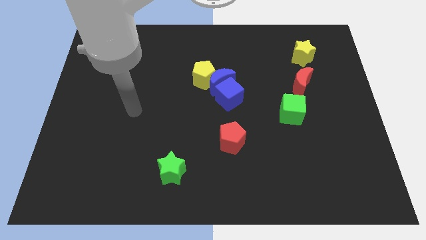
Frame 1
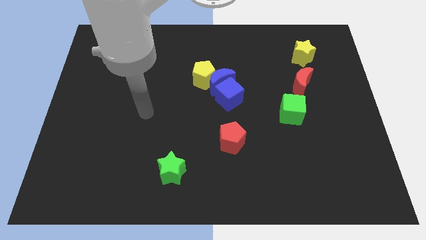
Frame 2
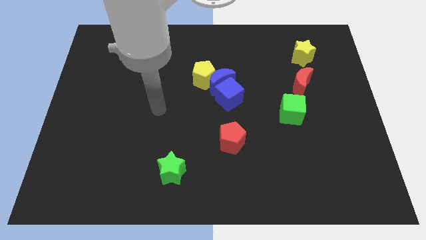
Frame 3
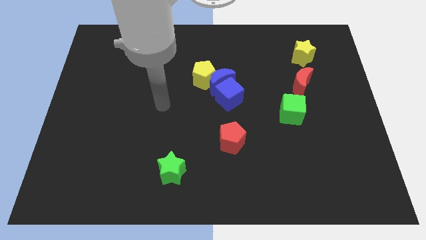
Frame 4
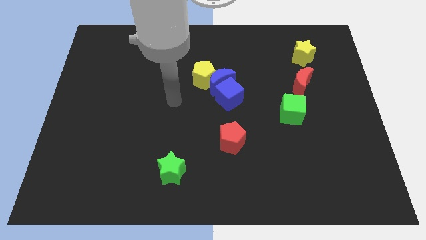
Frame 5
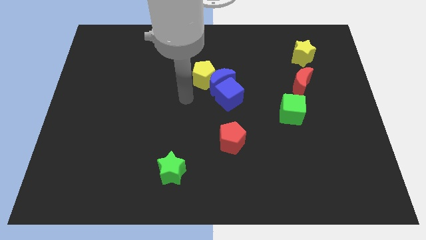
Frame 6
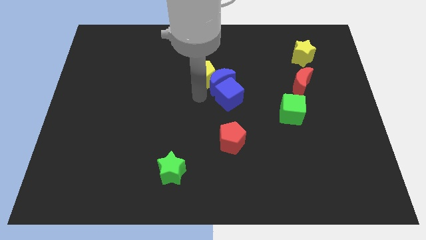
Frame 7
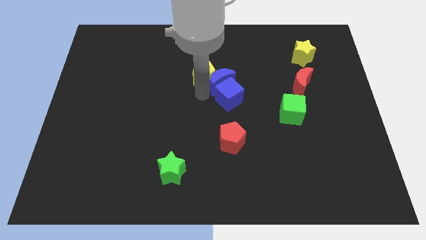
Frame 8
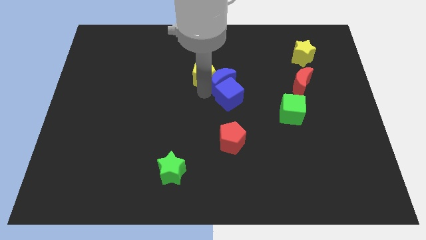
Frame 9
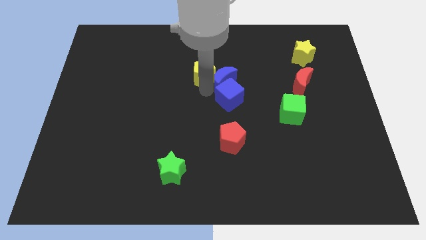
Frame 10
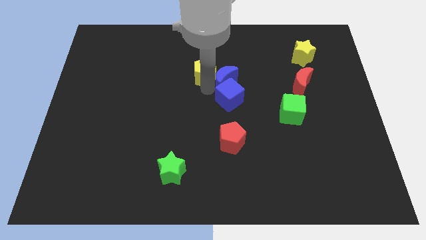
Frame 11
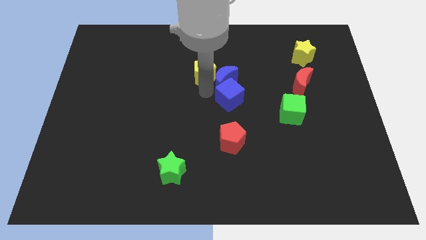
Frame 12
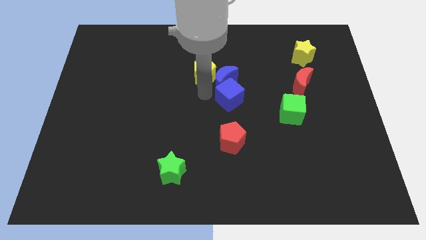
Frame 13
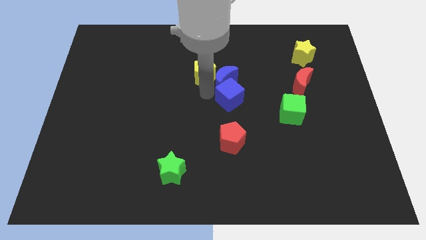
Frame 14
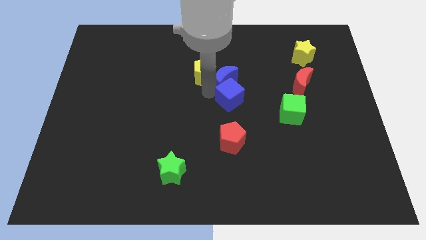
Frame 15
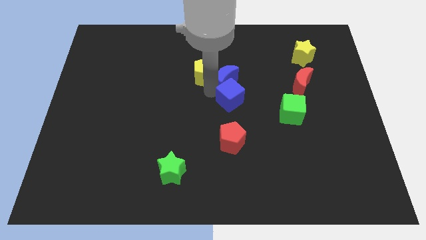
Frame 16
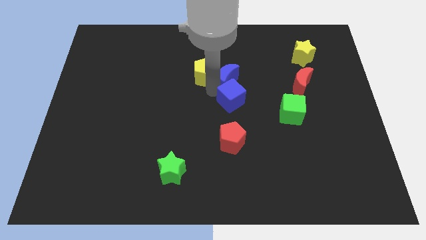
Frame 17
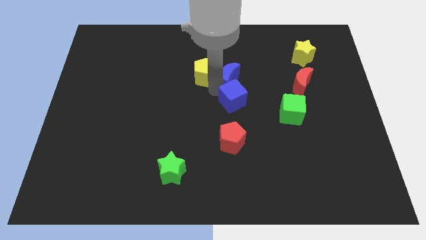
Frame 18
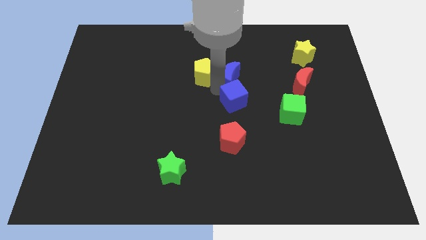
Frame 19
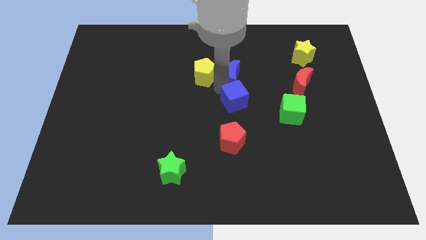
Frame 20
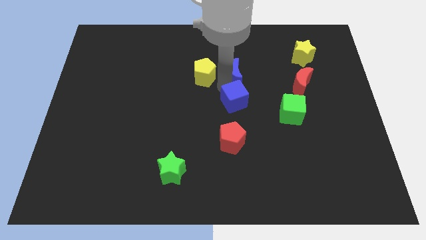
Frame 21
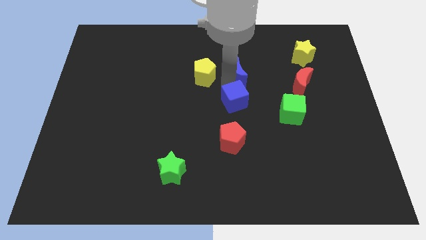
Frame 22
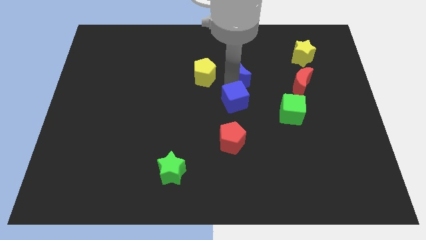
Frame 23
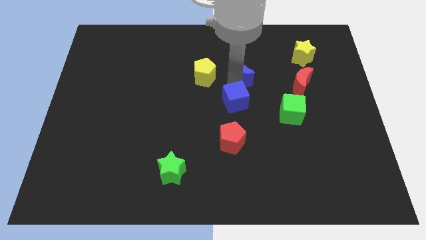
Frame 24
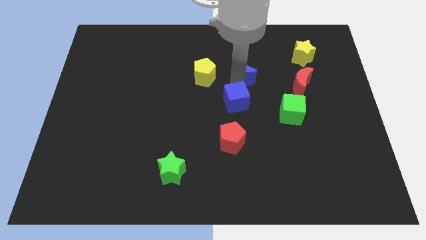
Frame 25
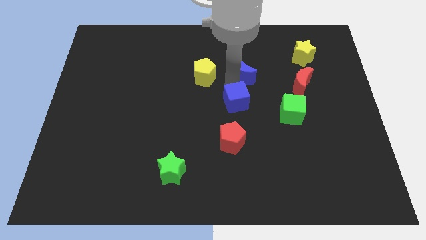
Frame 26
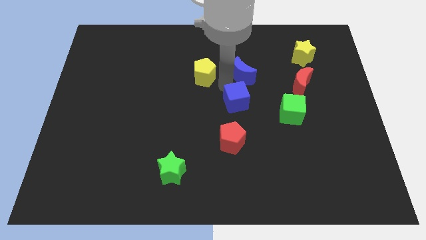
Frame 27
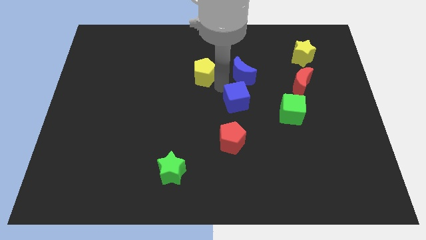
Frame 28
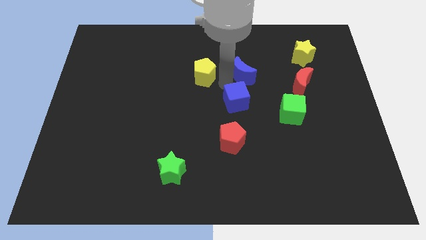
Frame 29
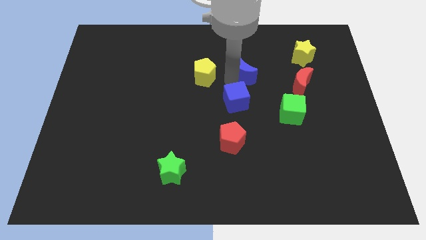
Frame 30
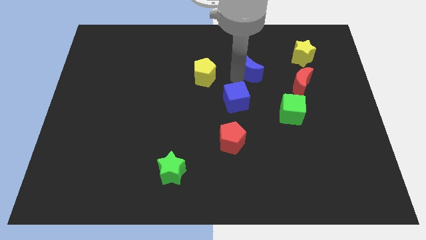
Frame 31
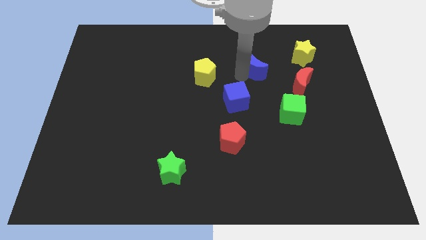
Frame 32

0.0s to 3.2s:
pull the blue moon apart from the yellow pentagon and blue cube

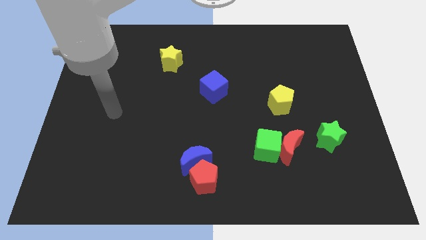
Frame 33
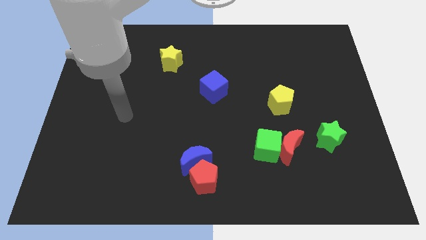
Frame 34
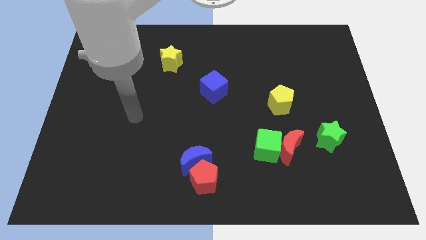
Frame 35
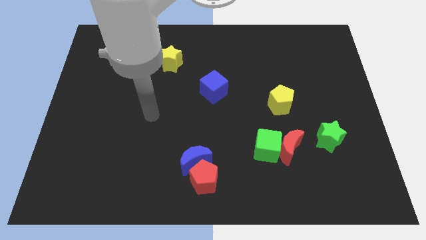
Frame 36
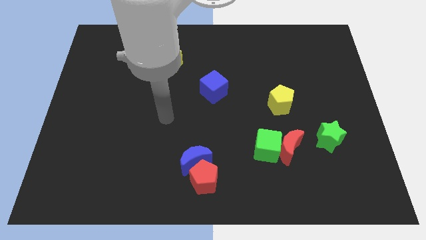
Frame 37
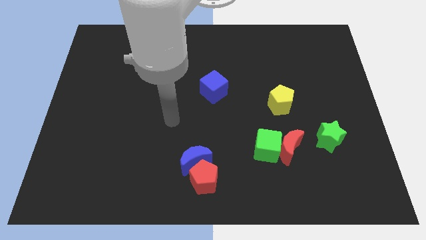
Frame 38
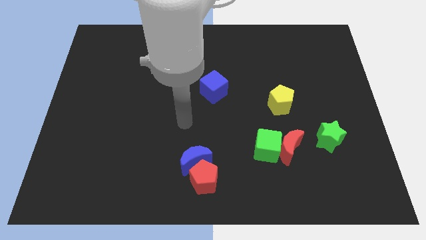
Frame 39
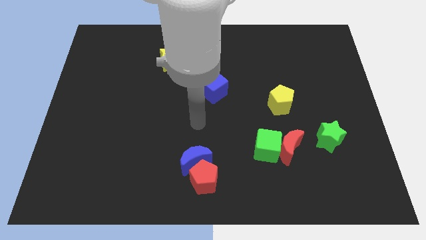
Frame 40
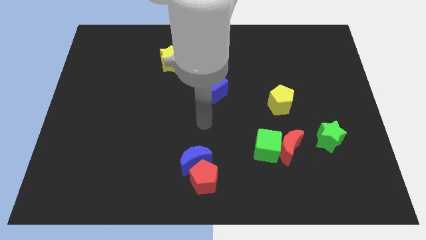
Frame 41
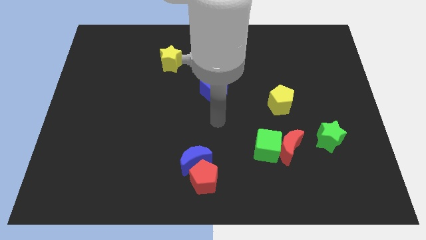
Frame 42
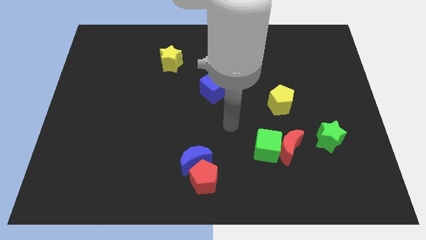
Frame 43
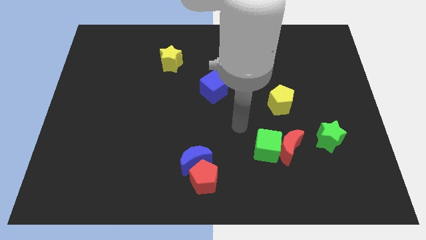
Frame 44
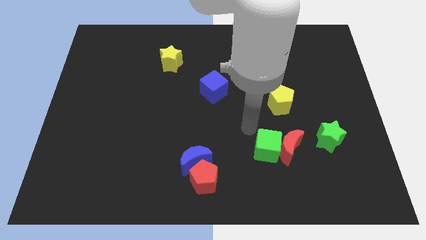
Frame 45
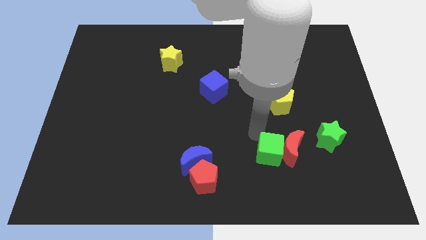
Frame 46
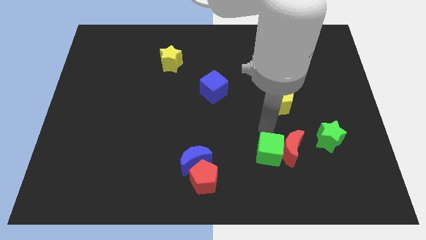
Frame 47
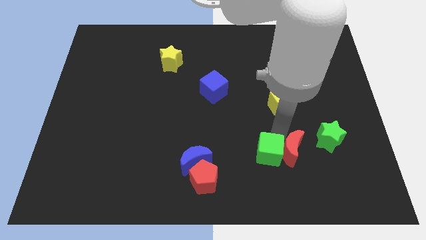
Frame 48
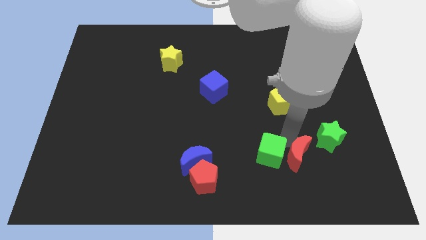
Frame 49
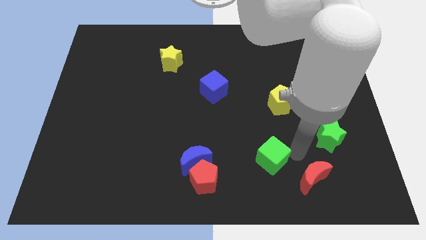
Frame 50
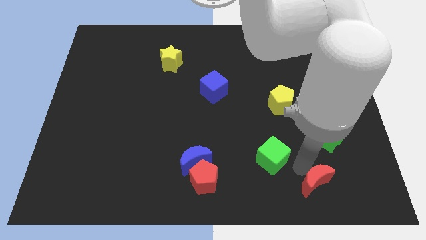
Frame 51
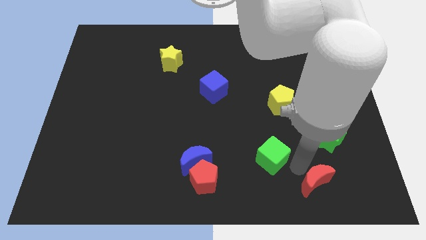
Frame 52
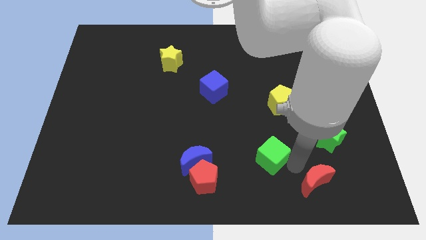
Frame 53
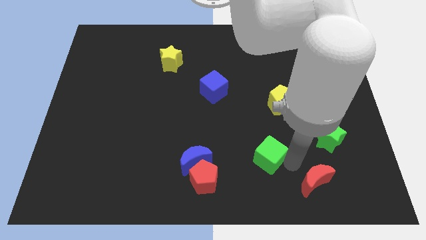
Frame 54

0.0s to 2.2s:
separate the green cube from the red moon

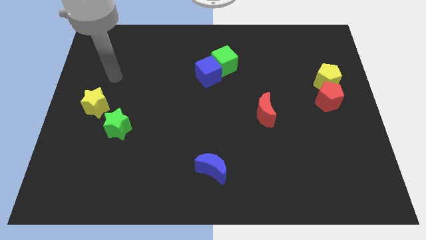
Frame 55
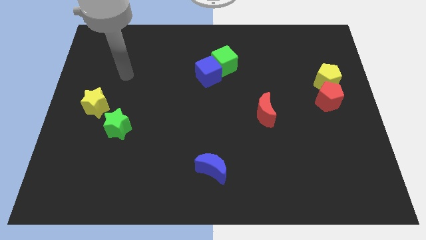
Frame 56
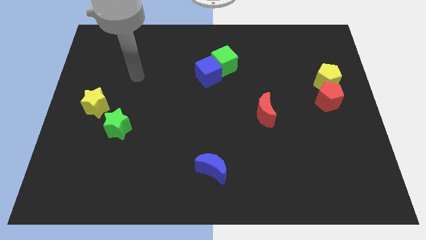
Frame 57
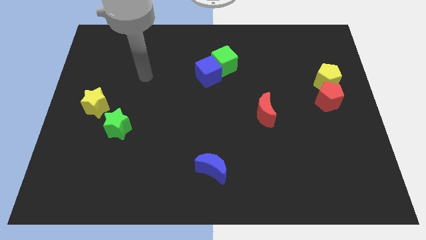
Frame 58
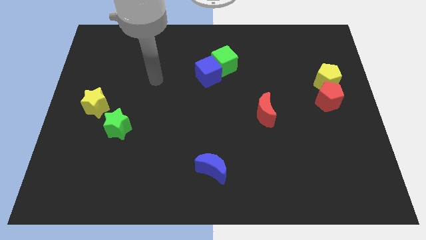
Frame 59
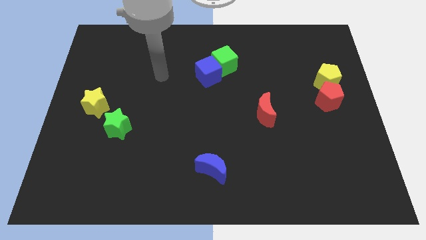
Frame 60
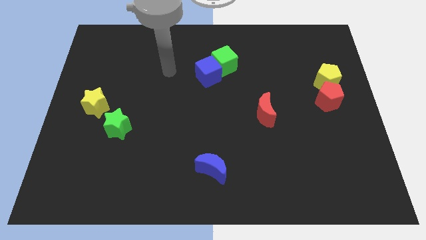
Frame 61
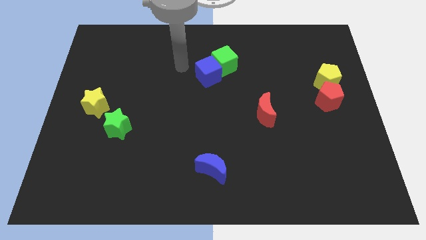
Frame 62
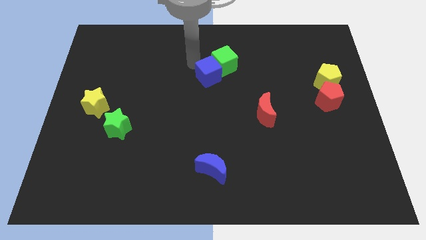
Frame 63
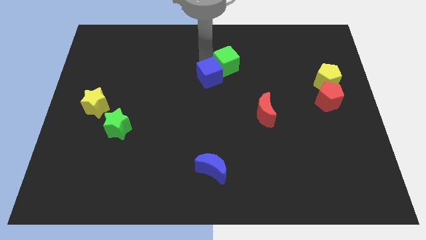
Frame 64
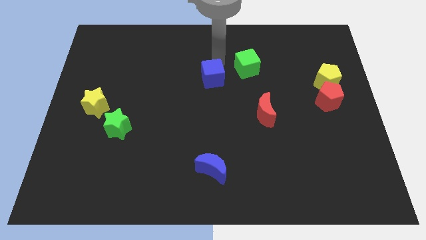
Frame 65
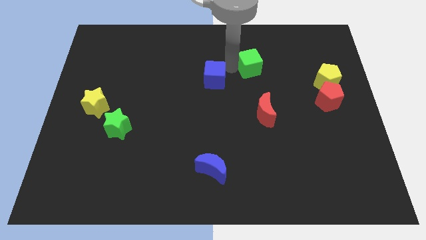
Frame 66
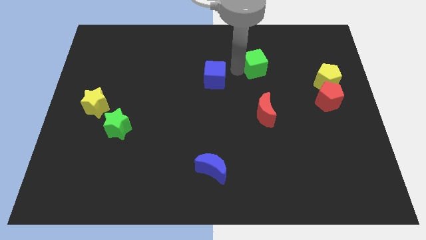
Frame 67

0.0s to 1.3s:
move the blue cube away from the green cube

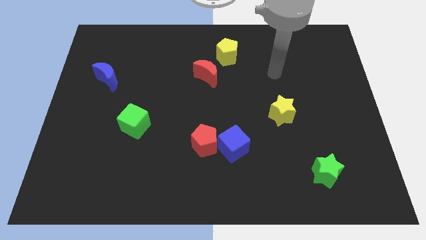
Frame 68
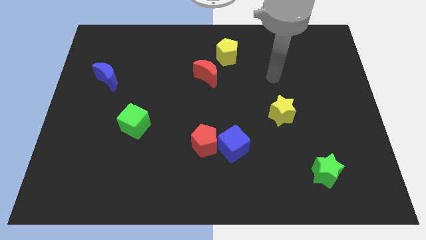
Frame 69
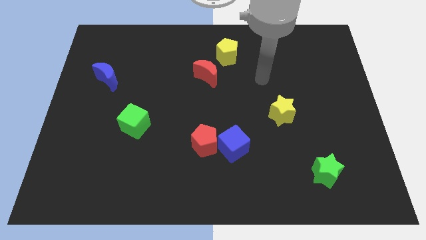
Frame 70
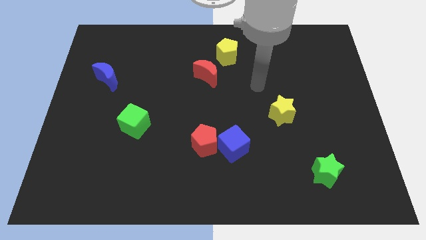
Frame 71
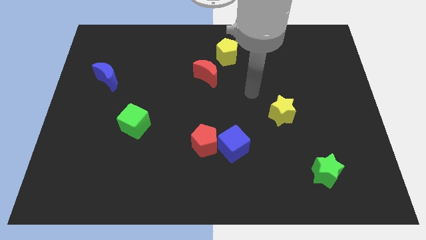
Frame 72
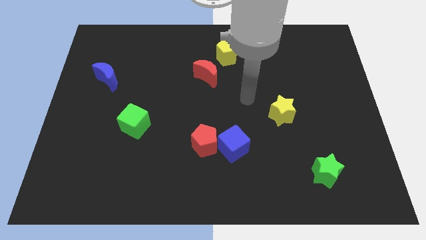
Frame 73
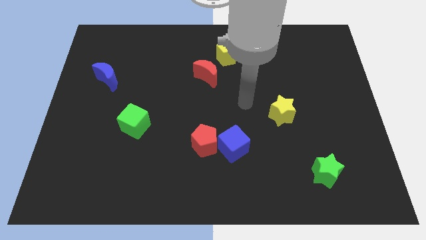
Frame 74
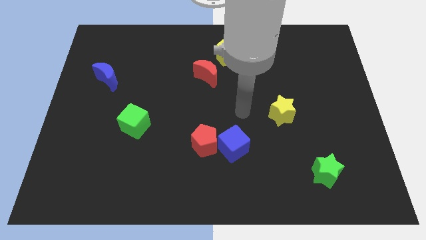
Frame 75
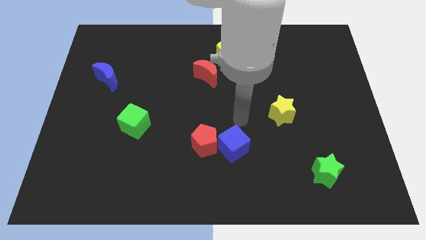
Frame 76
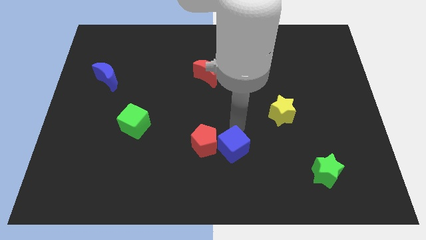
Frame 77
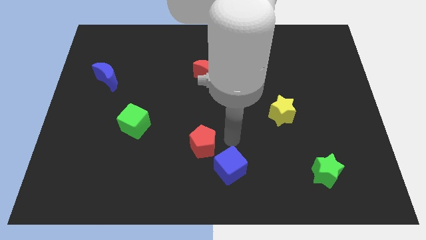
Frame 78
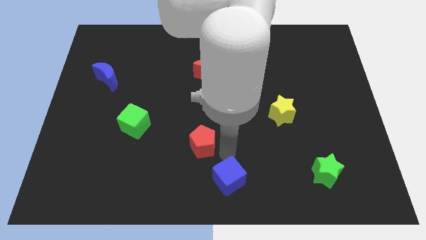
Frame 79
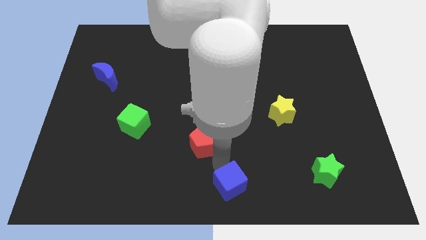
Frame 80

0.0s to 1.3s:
move the red pentagon away from the blue cube

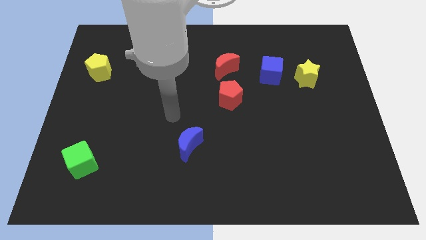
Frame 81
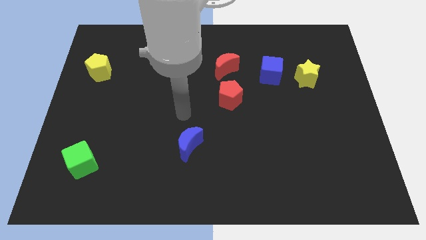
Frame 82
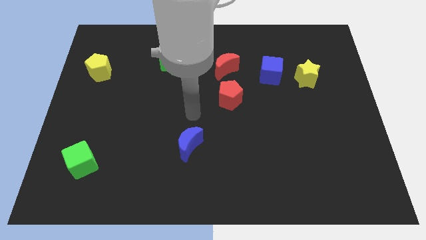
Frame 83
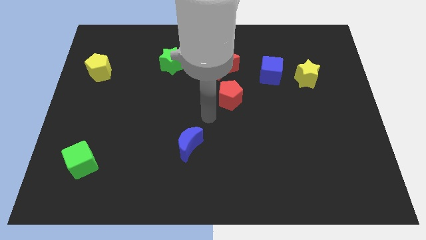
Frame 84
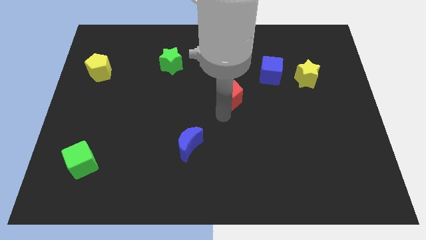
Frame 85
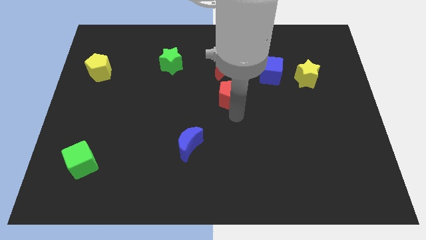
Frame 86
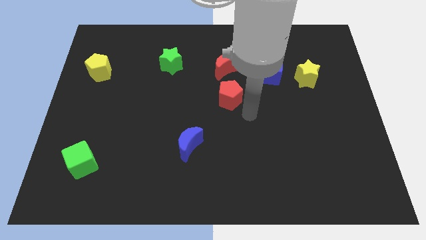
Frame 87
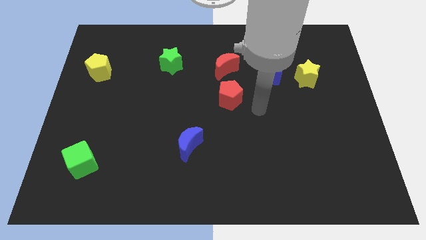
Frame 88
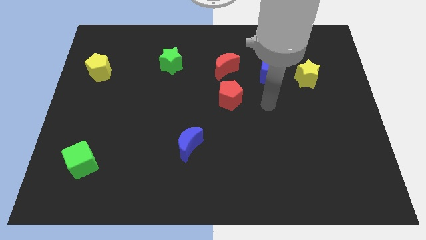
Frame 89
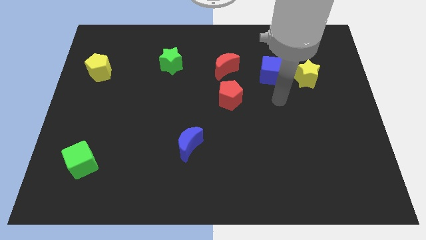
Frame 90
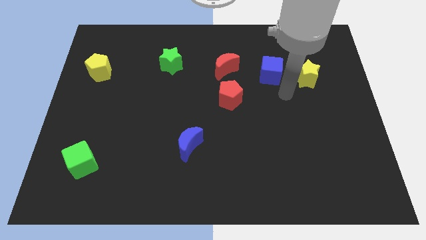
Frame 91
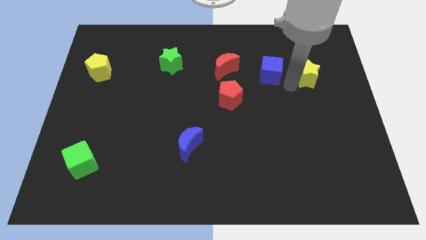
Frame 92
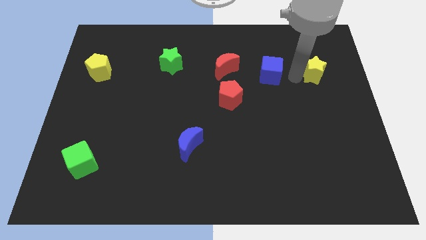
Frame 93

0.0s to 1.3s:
separate the blue cube from the yellow star

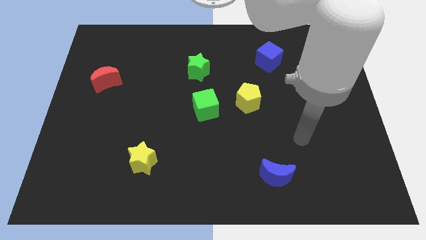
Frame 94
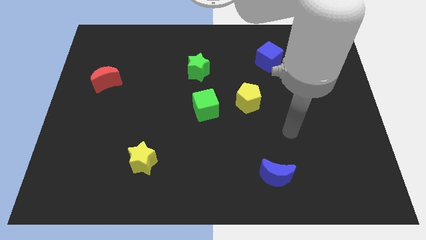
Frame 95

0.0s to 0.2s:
pull the green cube apart from the yellow pentagon
